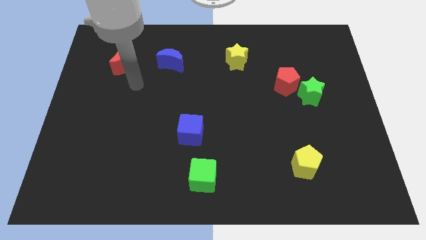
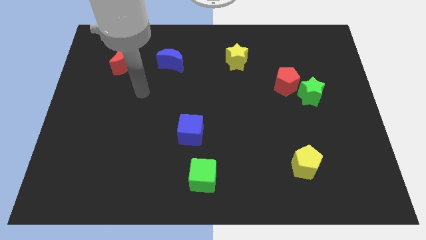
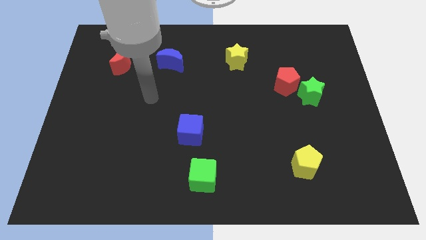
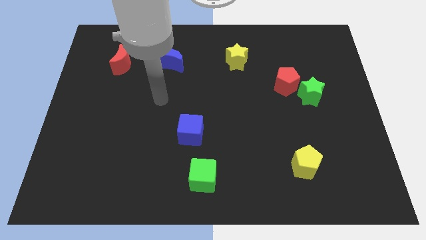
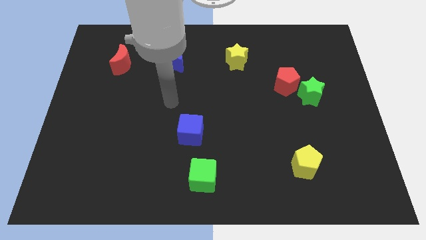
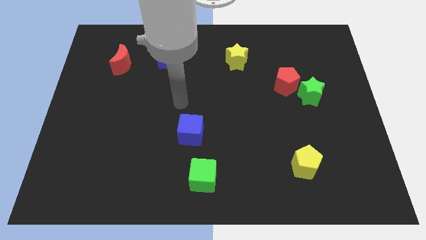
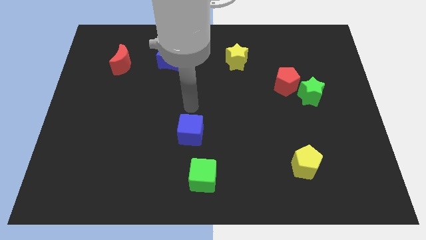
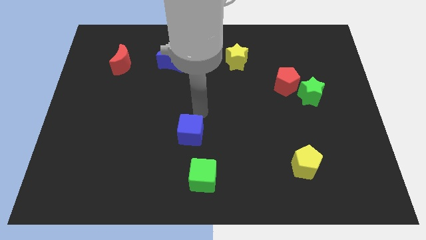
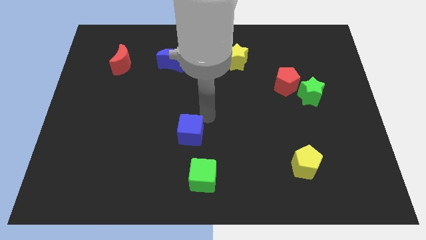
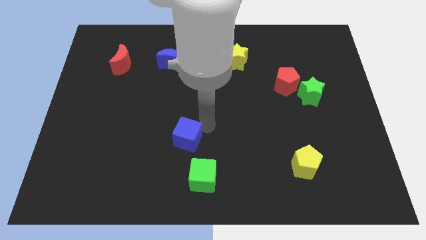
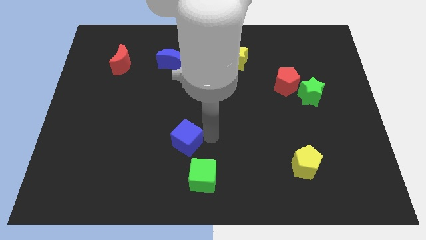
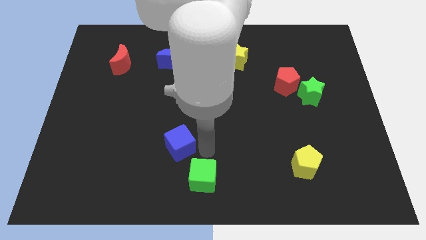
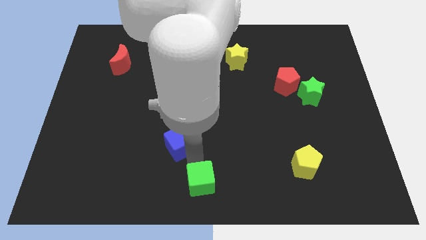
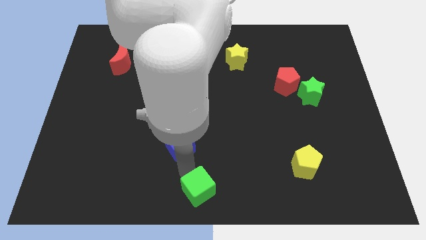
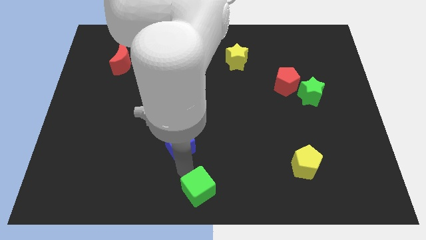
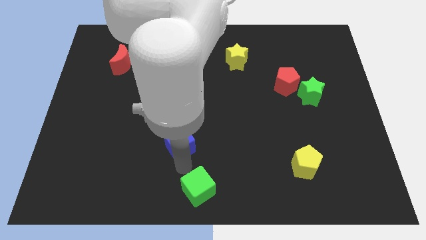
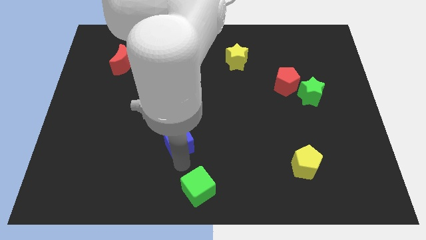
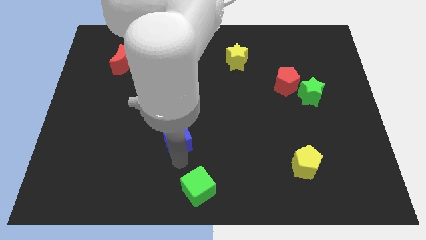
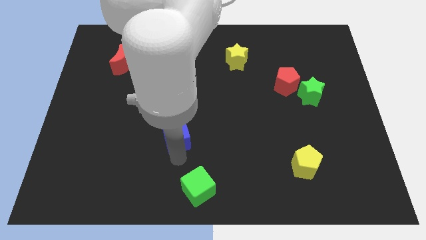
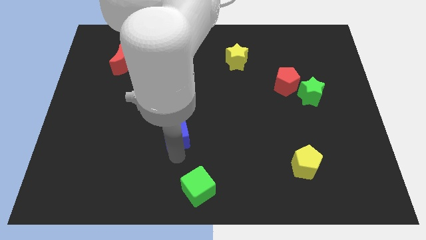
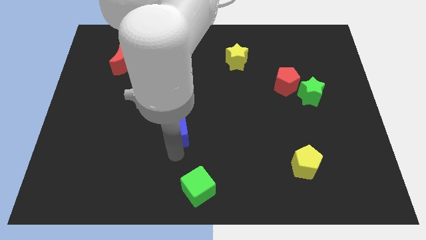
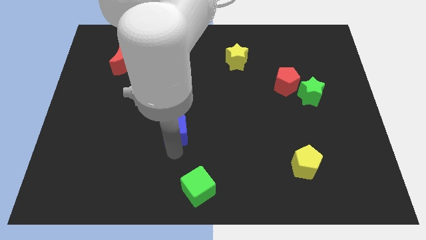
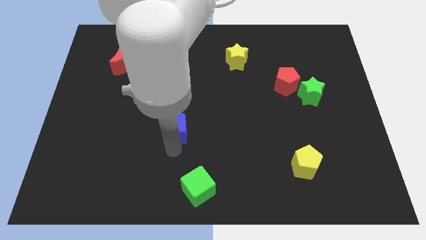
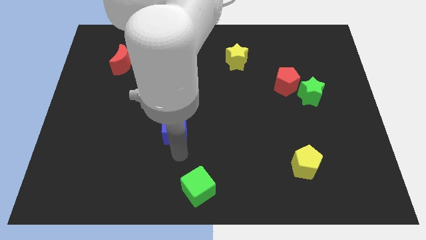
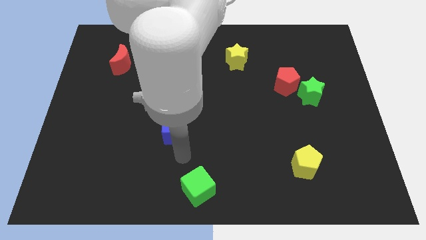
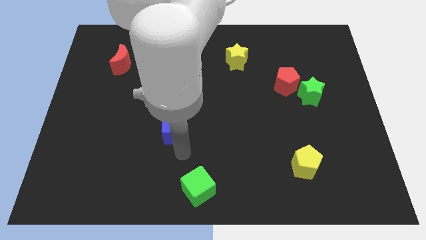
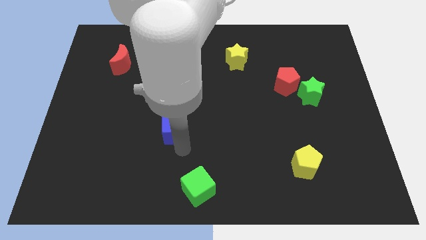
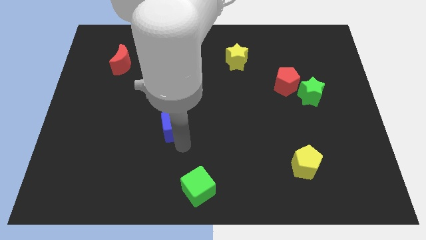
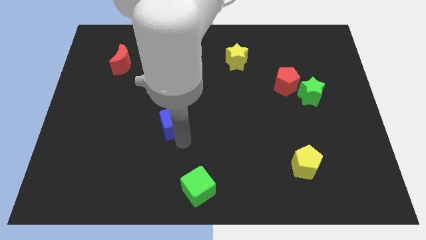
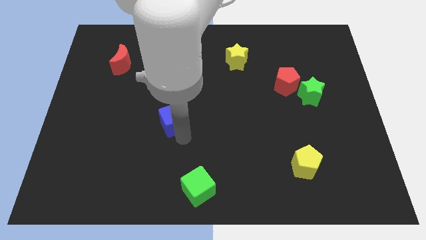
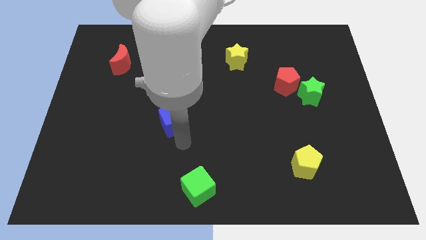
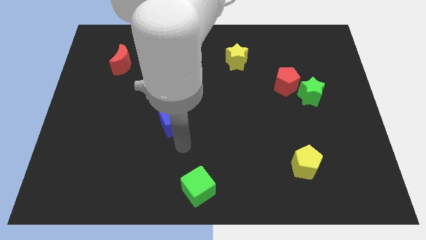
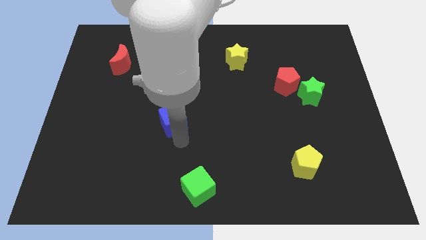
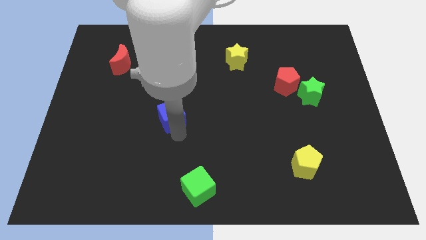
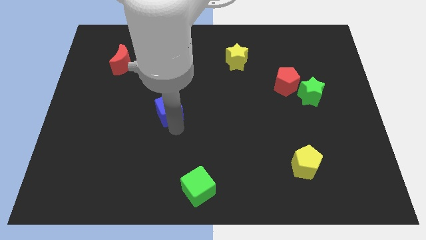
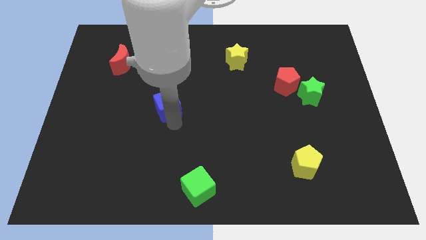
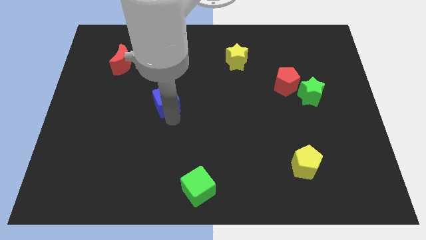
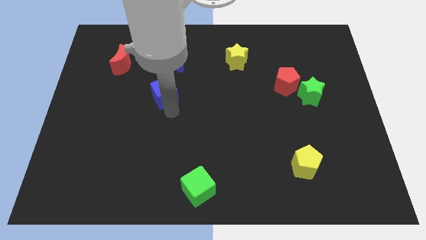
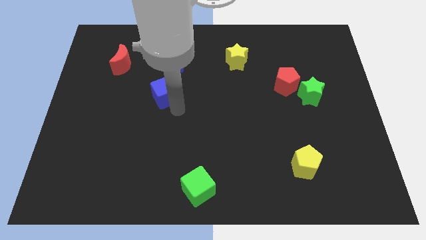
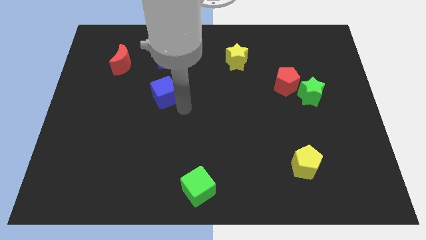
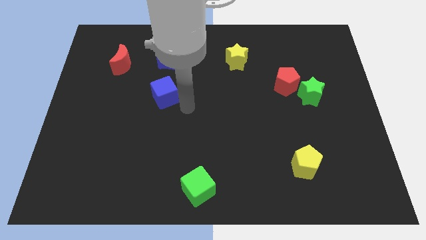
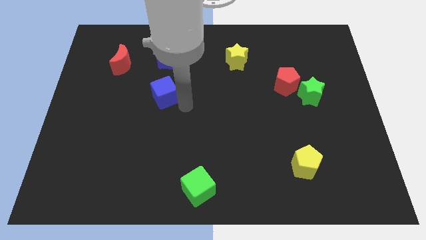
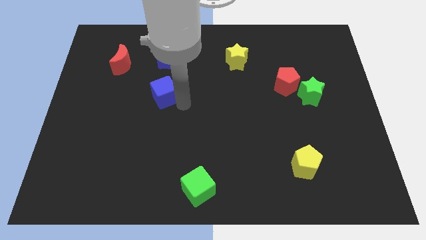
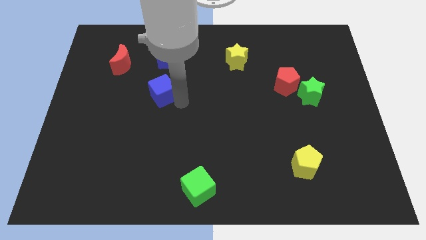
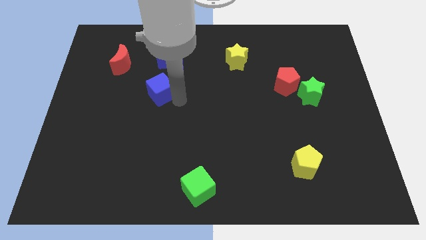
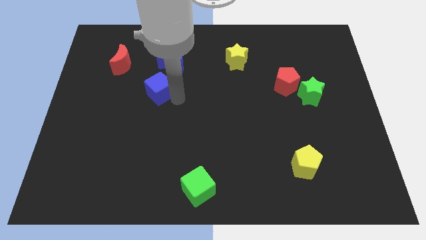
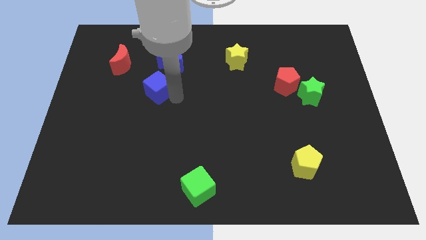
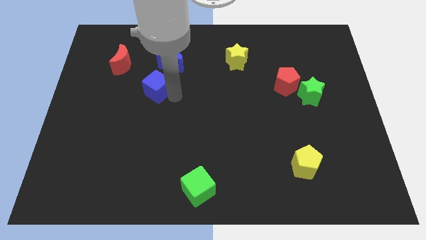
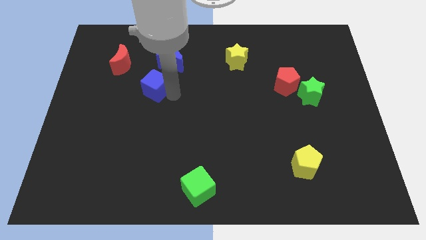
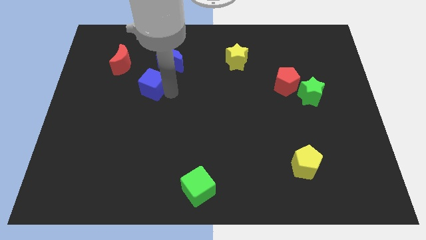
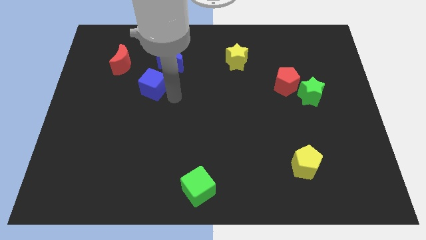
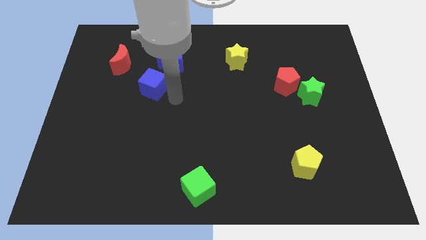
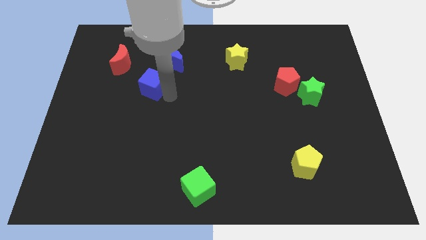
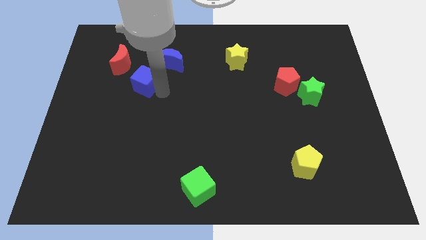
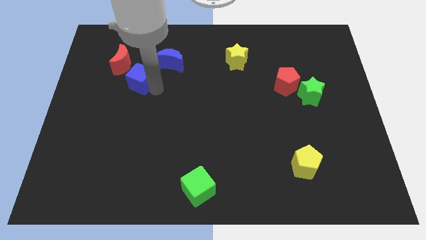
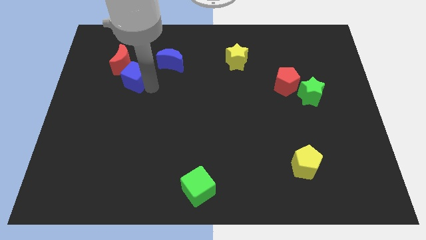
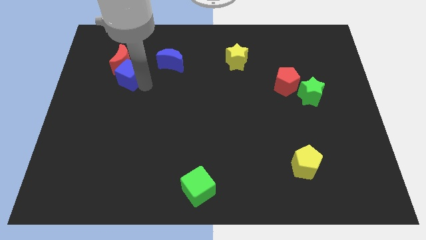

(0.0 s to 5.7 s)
move the blue cube to the red moon

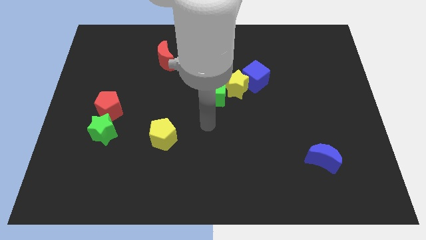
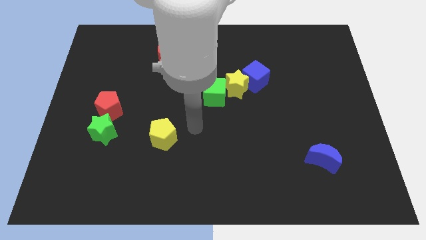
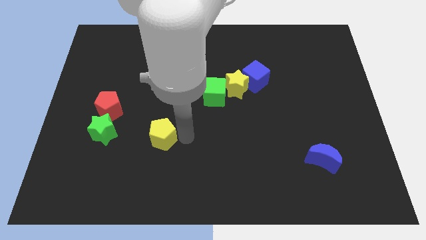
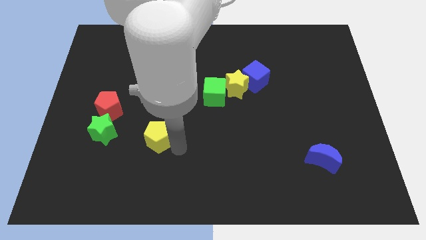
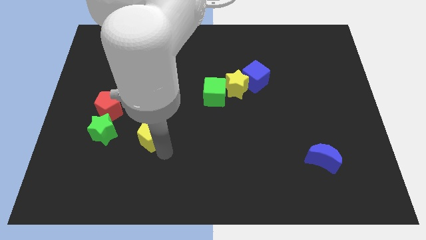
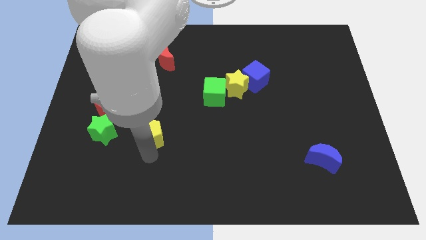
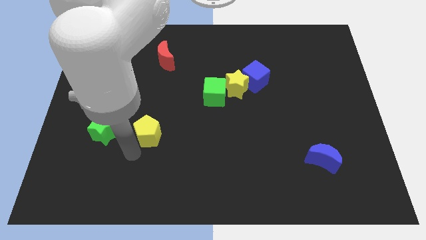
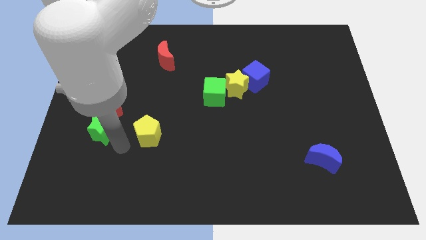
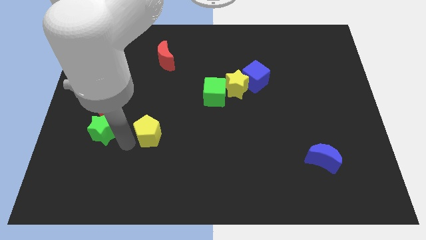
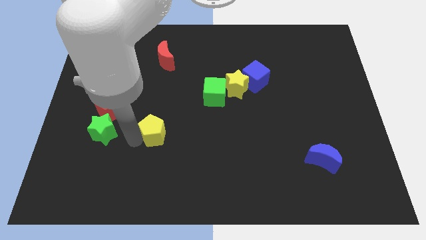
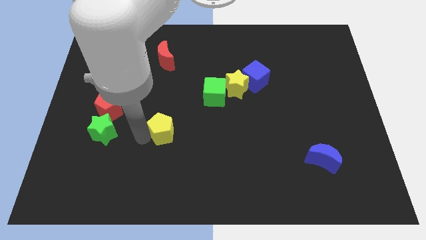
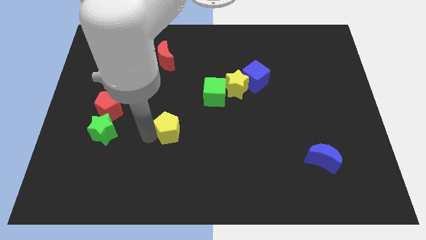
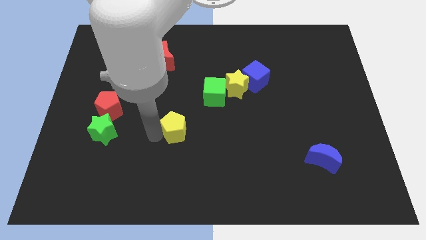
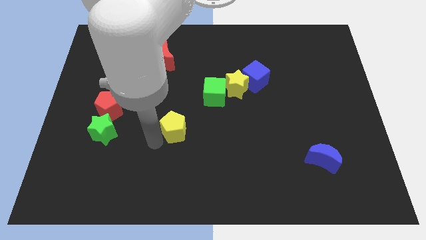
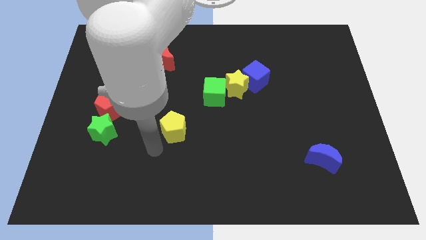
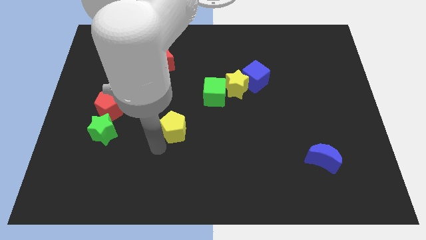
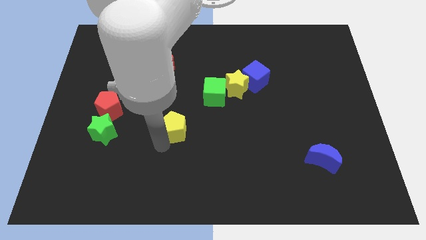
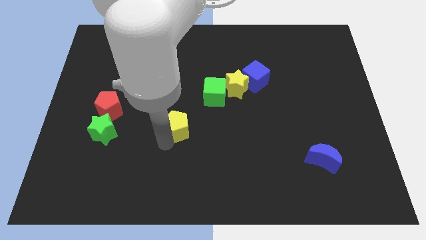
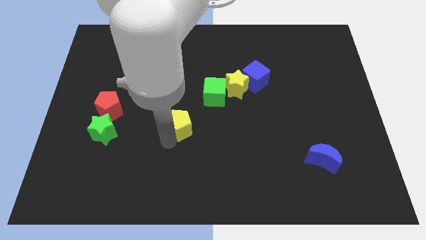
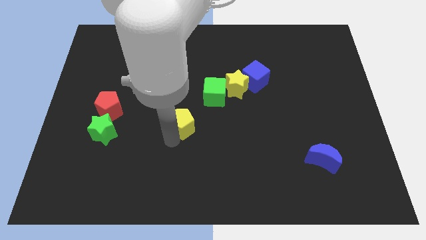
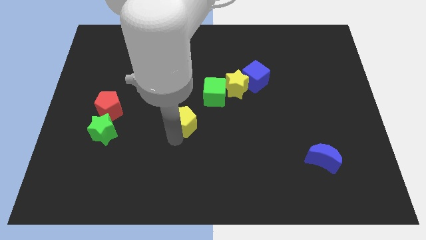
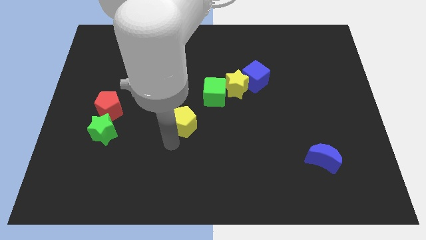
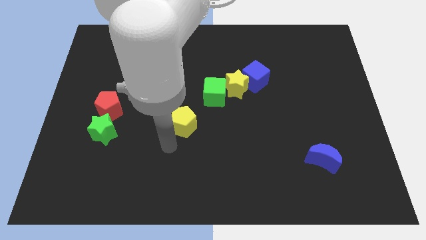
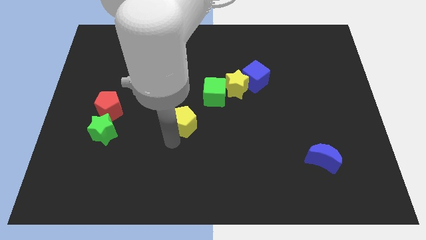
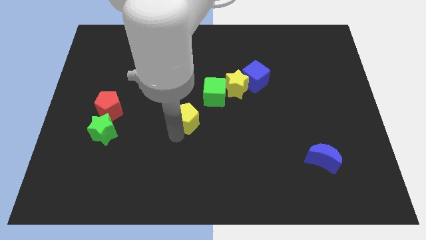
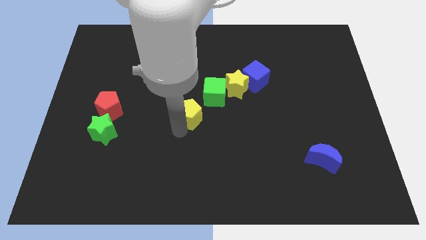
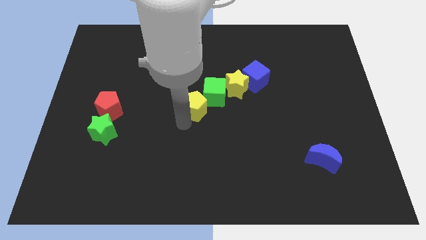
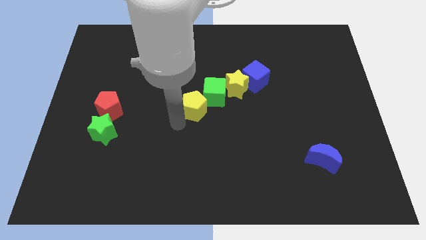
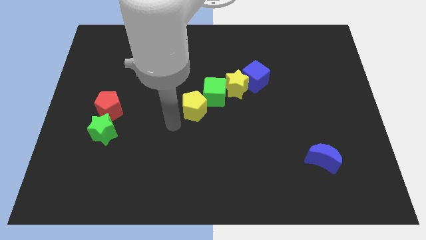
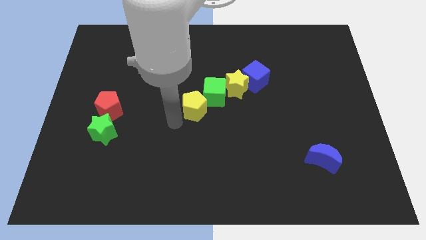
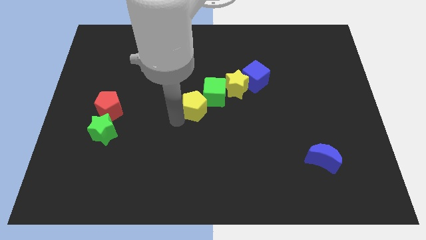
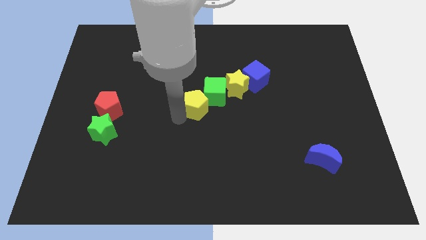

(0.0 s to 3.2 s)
put the yellow pentagon next to the green cube
